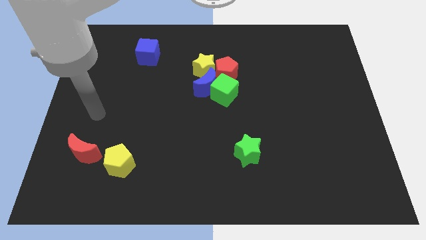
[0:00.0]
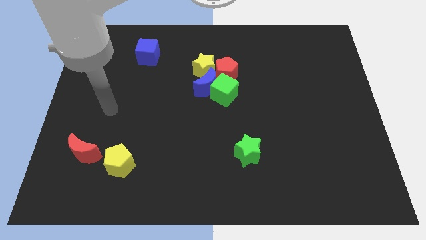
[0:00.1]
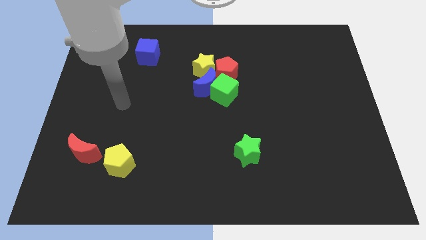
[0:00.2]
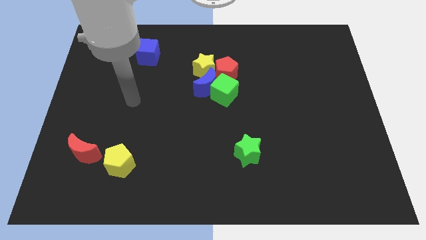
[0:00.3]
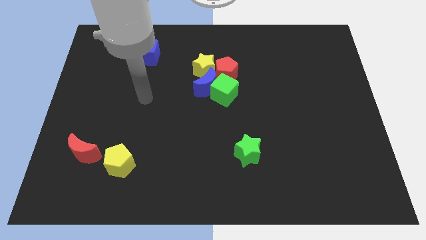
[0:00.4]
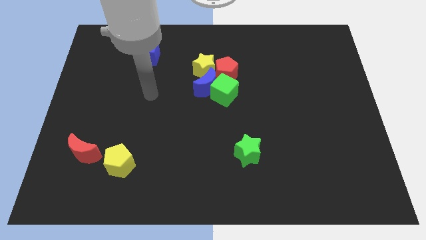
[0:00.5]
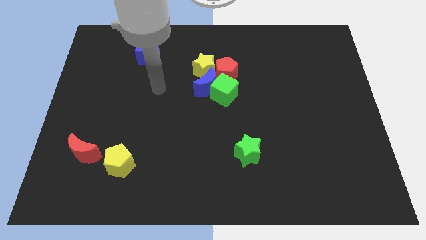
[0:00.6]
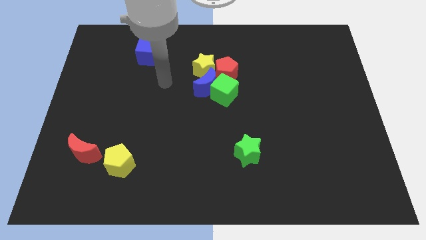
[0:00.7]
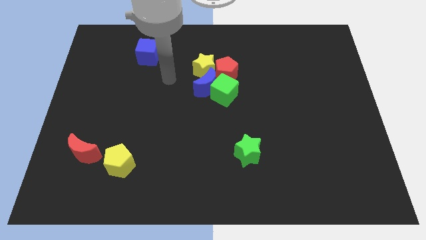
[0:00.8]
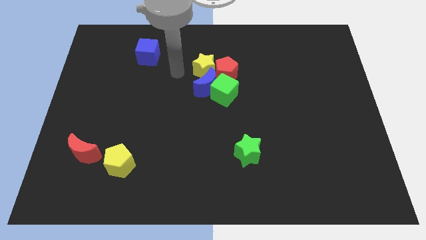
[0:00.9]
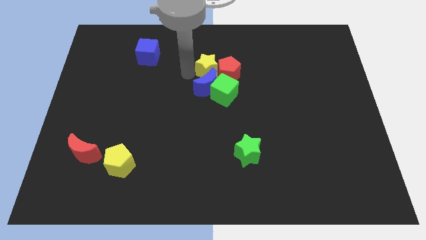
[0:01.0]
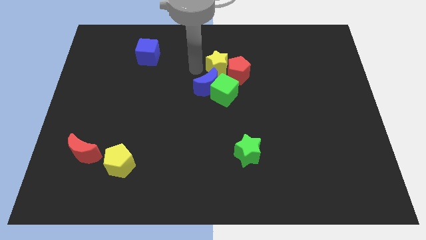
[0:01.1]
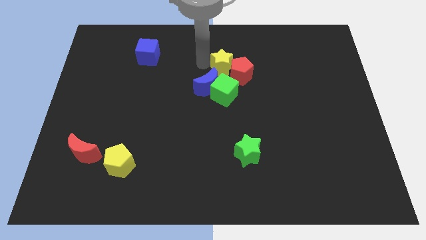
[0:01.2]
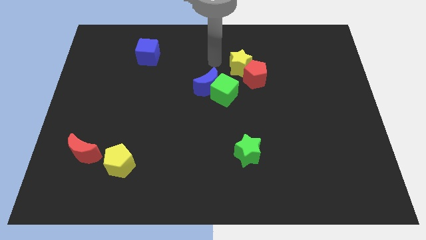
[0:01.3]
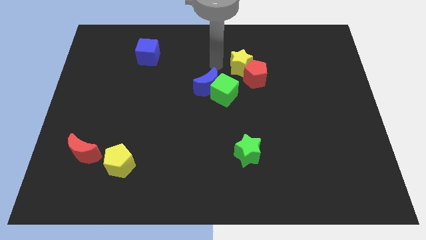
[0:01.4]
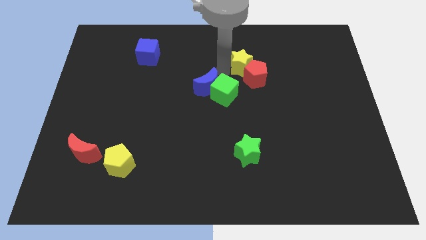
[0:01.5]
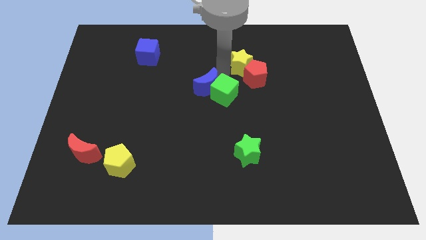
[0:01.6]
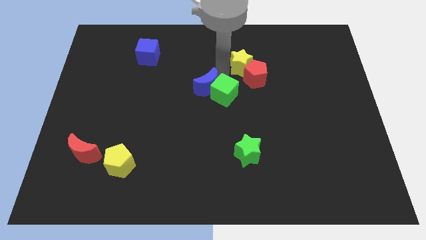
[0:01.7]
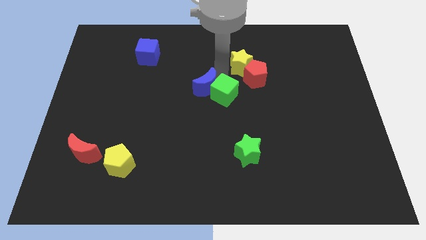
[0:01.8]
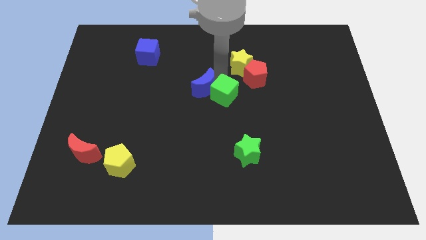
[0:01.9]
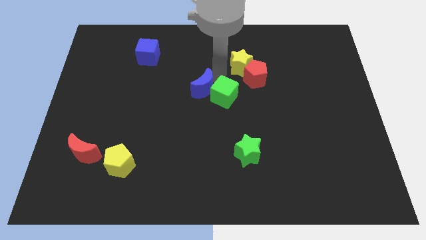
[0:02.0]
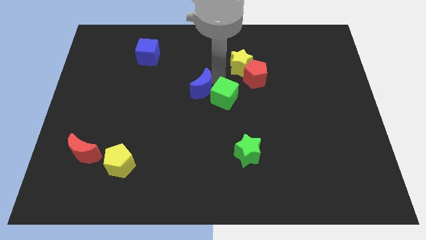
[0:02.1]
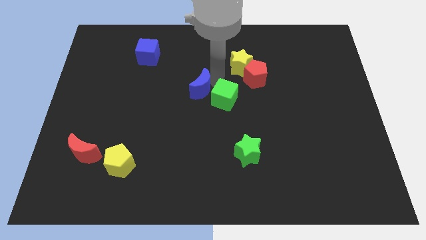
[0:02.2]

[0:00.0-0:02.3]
pull the blue moon apart from the green cube, yellow star, and red pentagon

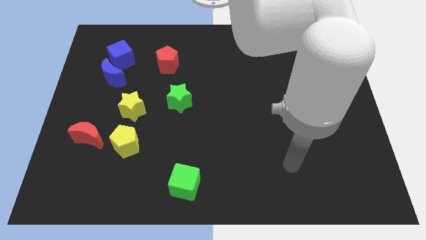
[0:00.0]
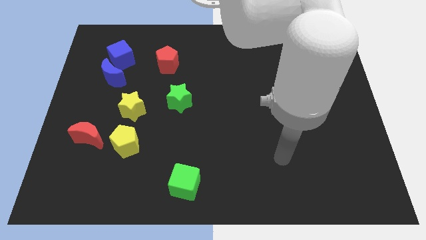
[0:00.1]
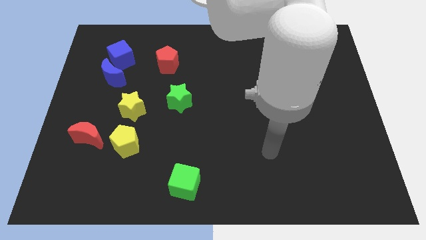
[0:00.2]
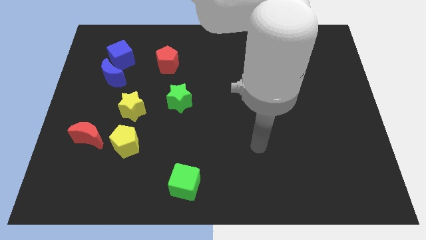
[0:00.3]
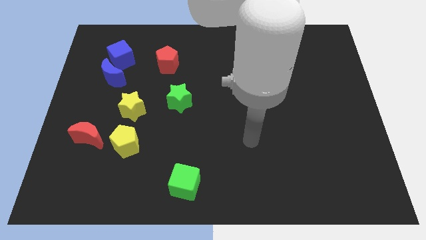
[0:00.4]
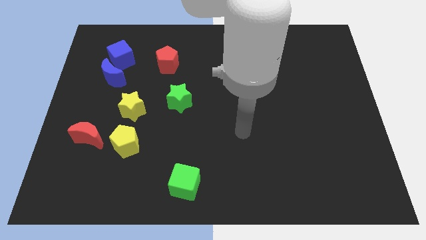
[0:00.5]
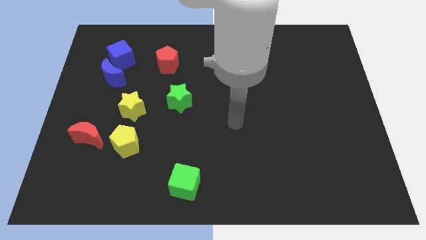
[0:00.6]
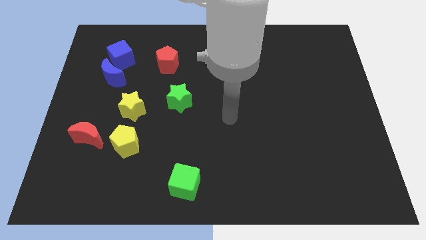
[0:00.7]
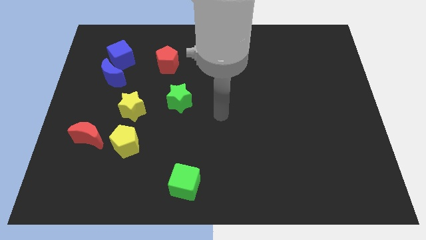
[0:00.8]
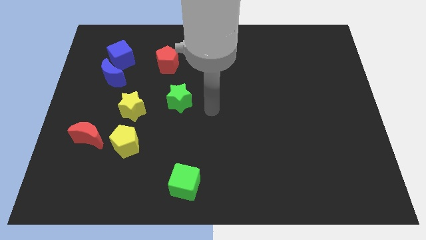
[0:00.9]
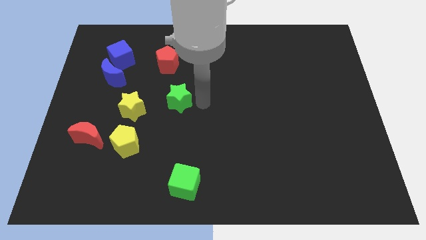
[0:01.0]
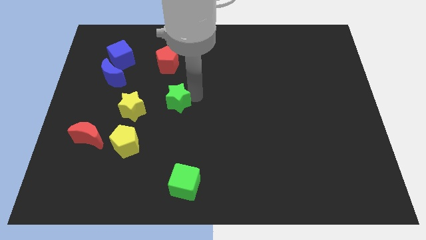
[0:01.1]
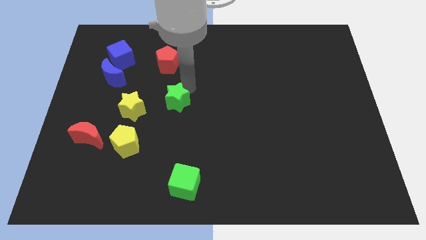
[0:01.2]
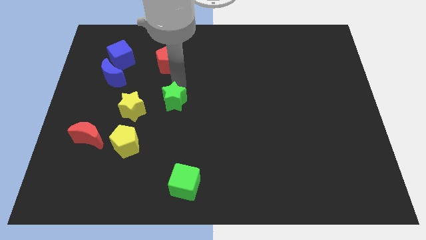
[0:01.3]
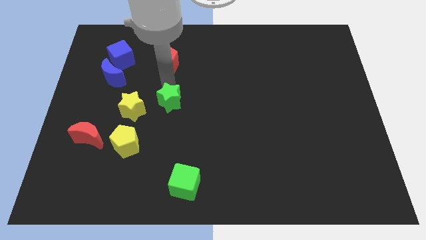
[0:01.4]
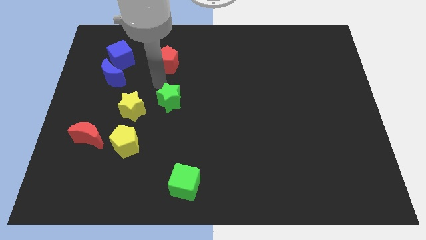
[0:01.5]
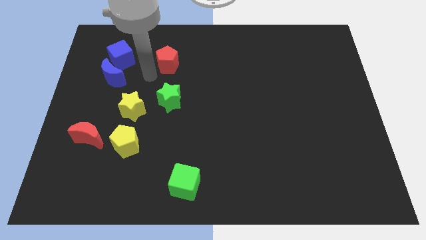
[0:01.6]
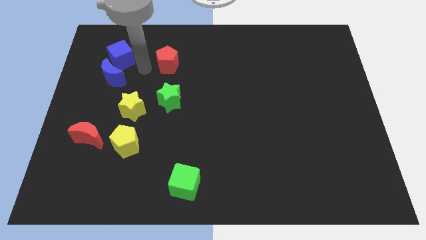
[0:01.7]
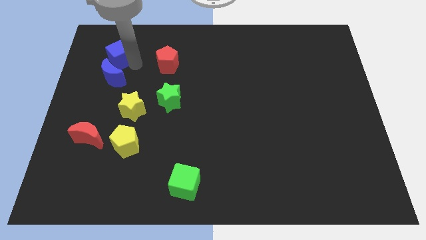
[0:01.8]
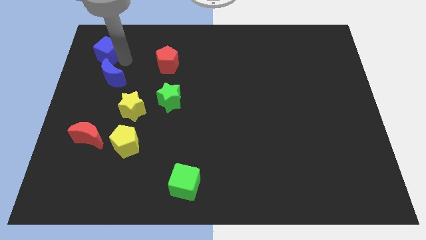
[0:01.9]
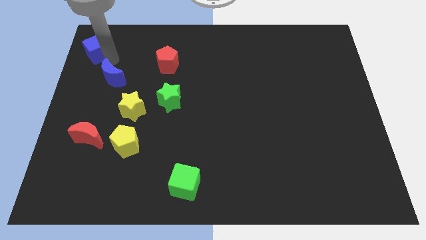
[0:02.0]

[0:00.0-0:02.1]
separate the blue moon from the blue cube

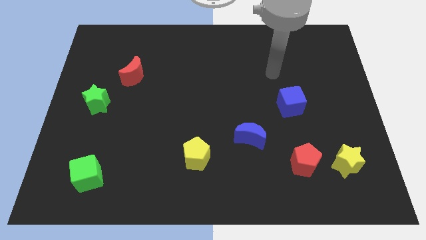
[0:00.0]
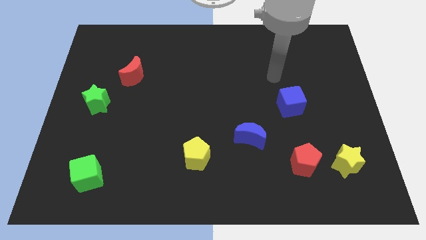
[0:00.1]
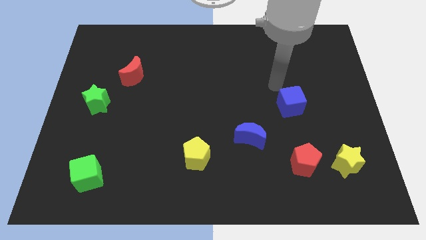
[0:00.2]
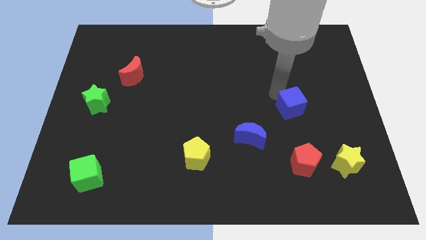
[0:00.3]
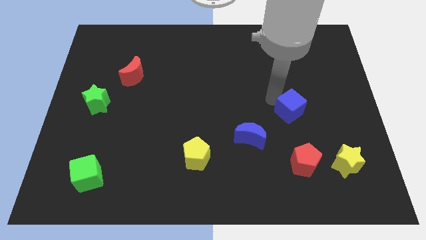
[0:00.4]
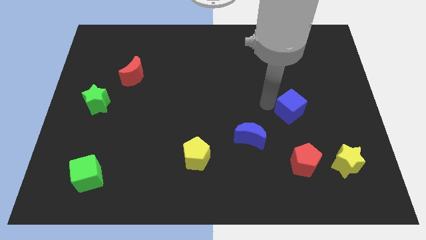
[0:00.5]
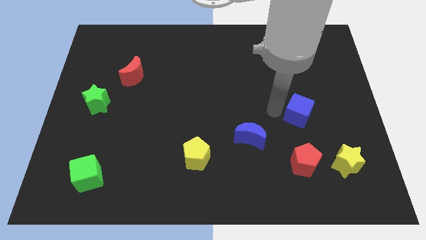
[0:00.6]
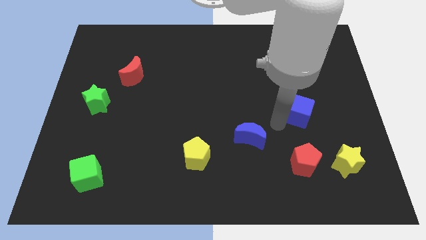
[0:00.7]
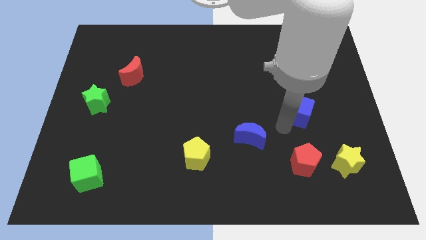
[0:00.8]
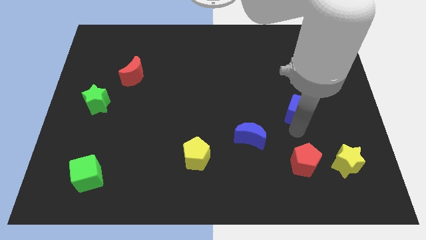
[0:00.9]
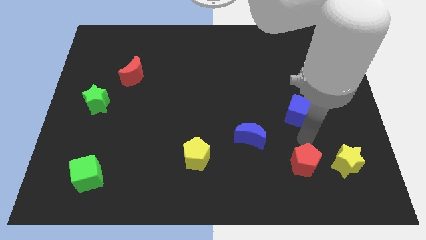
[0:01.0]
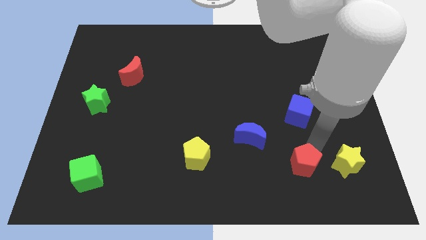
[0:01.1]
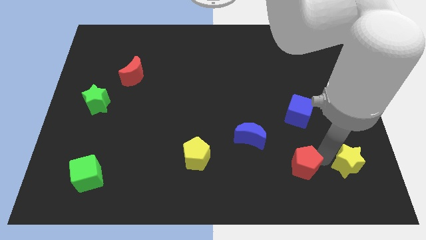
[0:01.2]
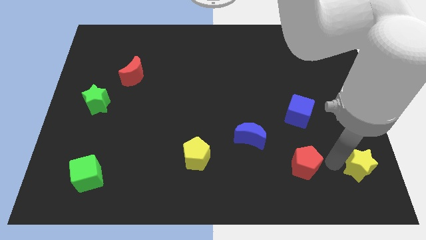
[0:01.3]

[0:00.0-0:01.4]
pull the red pentagon apart from the yellow star

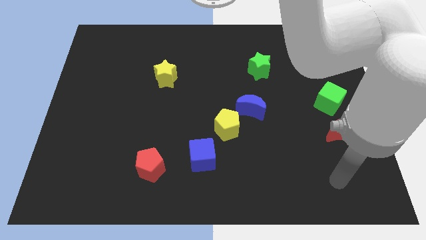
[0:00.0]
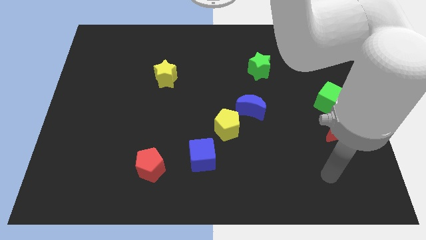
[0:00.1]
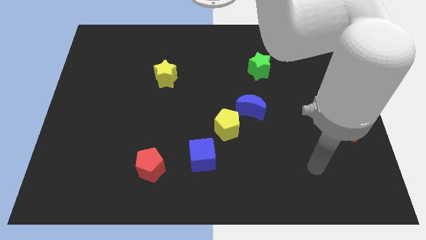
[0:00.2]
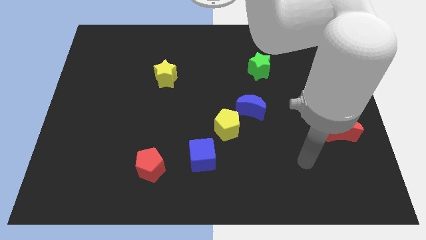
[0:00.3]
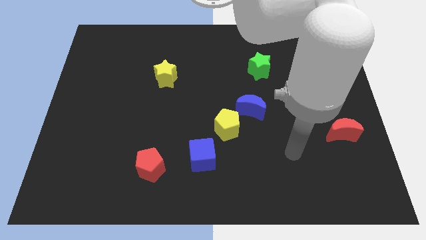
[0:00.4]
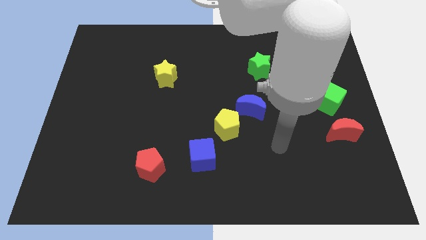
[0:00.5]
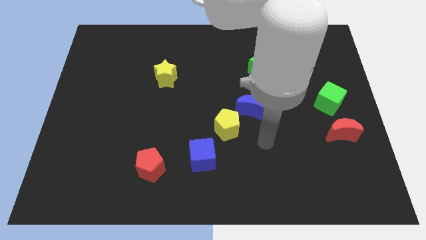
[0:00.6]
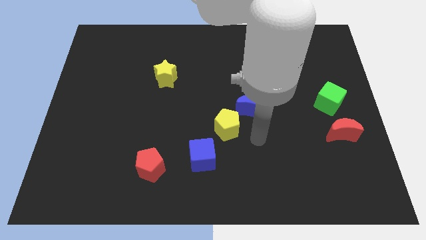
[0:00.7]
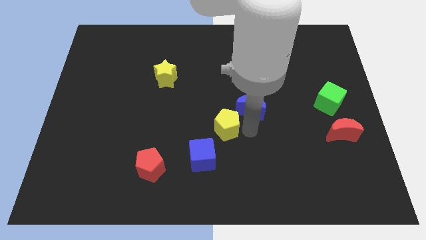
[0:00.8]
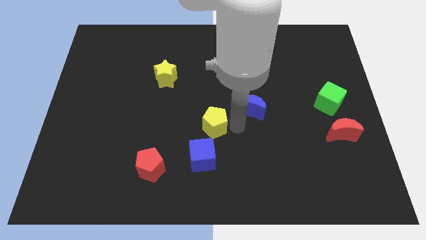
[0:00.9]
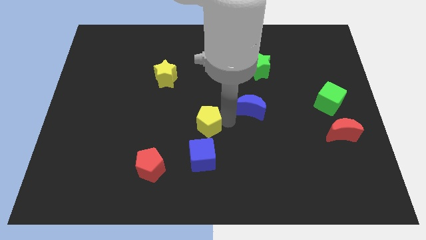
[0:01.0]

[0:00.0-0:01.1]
move the blue moon away from the yellow pentagon

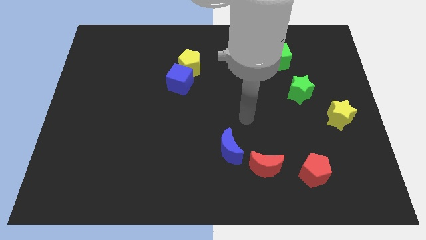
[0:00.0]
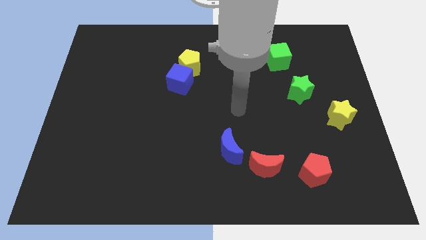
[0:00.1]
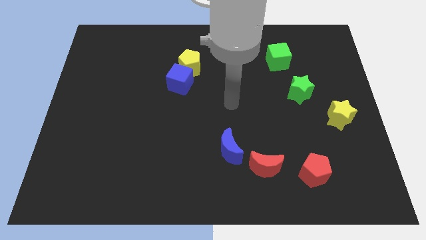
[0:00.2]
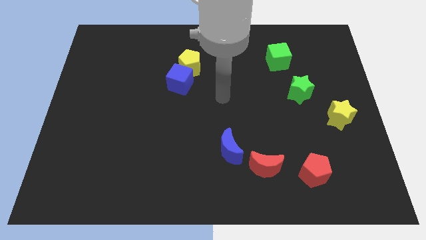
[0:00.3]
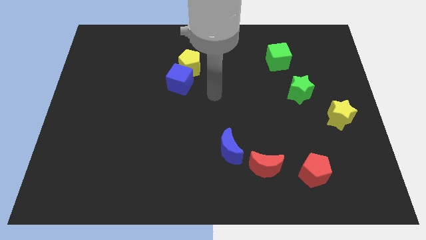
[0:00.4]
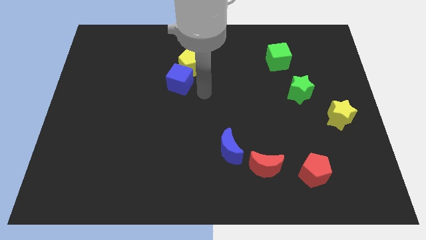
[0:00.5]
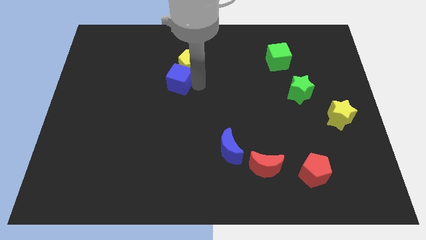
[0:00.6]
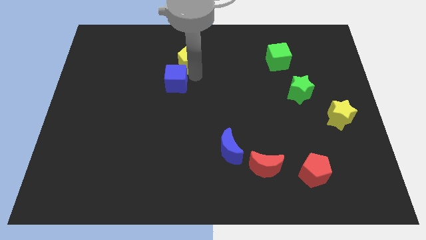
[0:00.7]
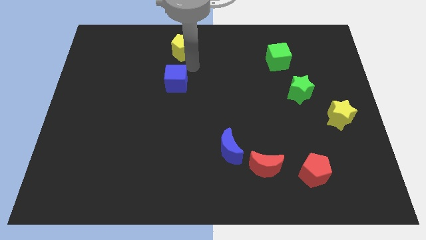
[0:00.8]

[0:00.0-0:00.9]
separate the blue cube from the yellow pentagon

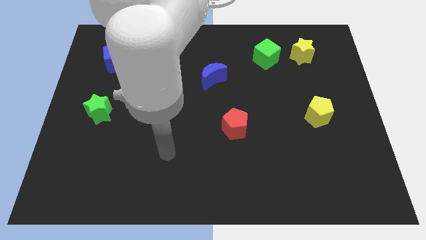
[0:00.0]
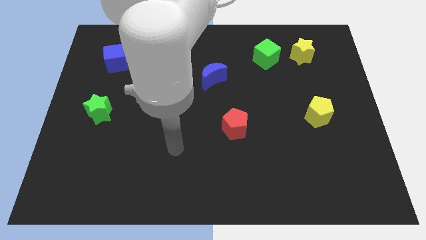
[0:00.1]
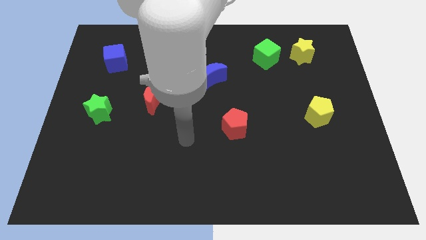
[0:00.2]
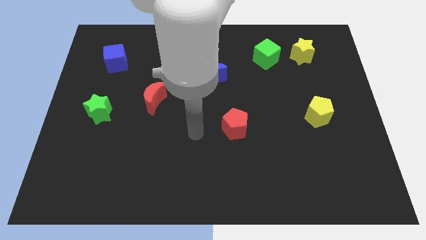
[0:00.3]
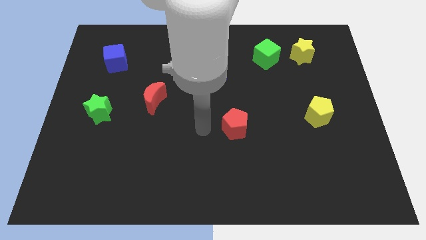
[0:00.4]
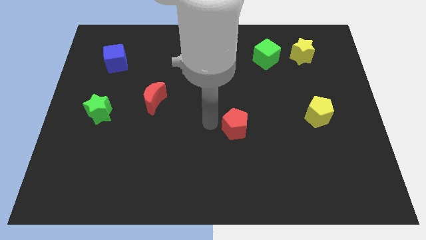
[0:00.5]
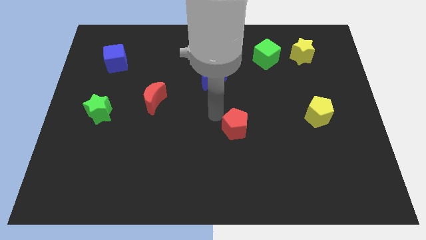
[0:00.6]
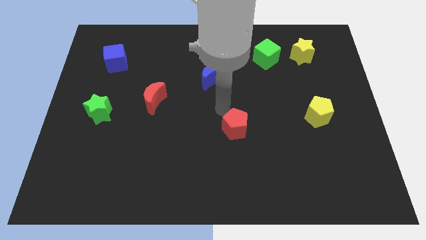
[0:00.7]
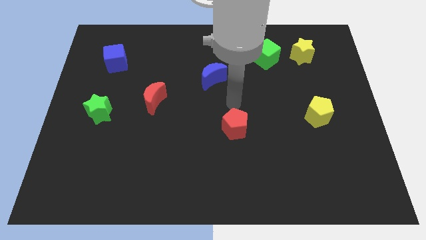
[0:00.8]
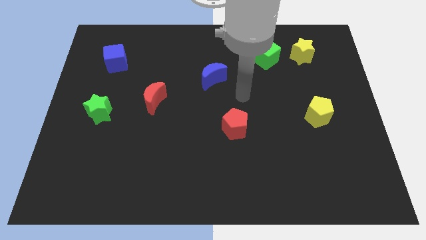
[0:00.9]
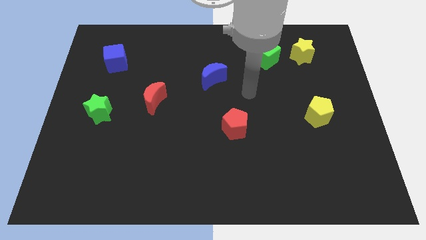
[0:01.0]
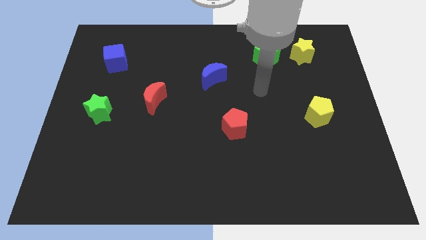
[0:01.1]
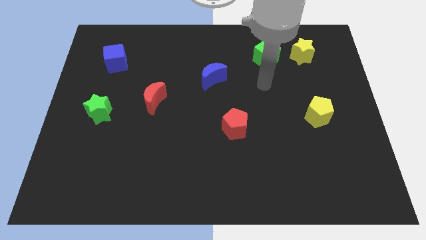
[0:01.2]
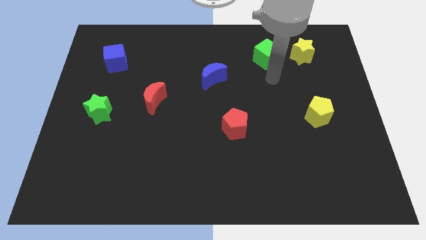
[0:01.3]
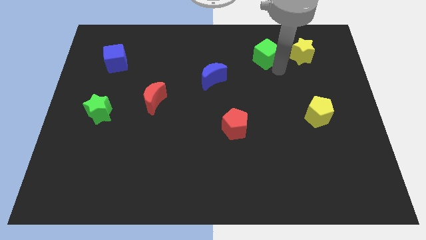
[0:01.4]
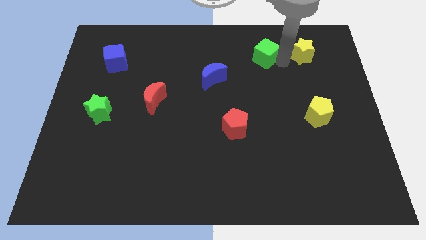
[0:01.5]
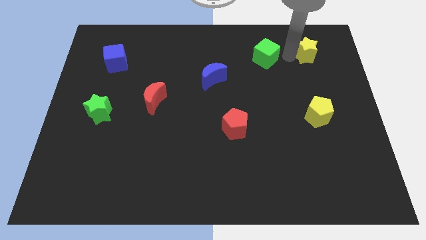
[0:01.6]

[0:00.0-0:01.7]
move the green cube away from the yellow star
